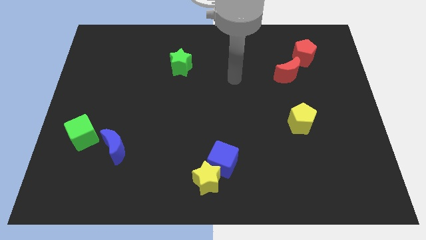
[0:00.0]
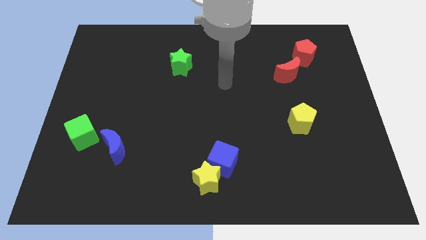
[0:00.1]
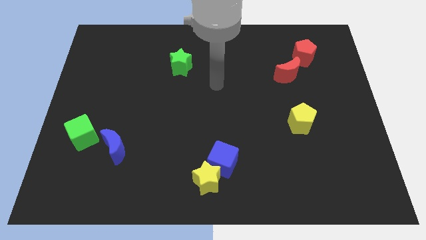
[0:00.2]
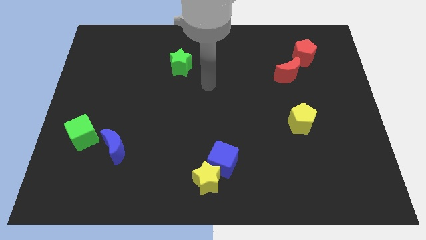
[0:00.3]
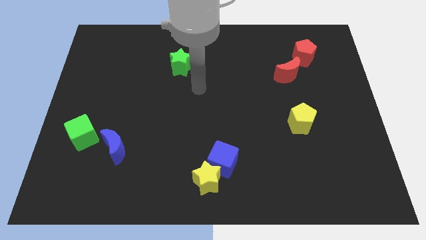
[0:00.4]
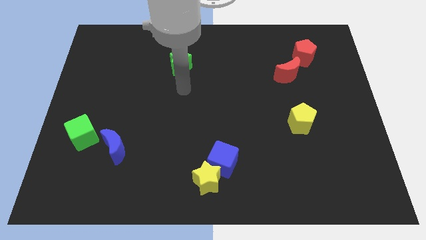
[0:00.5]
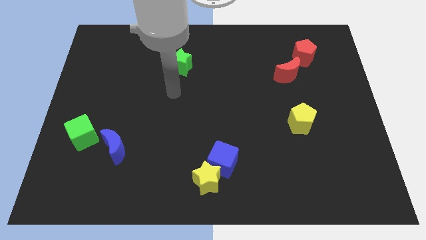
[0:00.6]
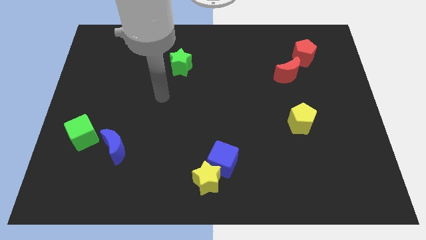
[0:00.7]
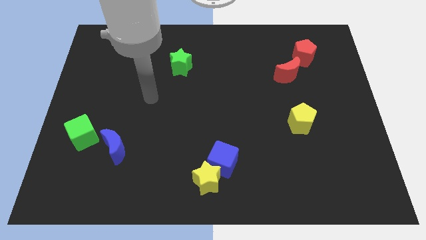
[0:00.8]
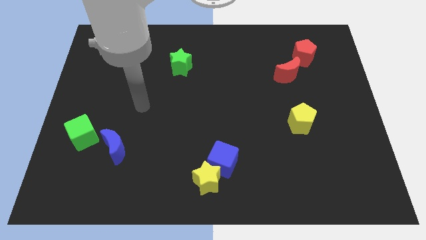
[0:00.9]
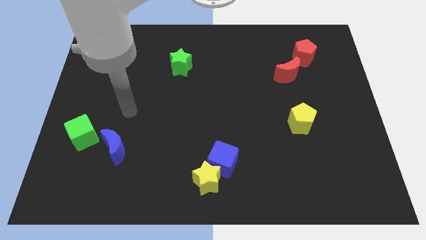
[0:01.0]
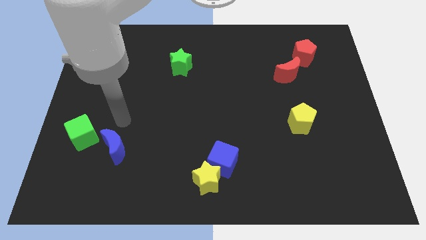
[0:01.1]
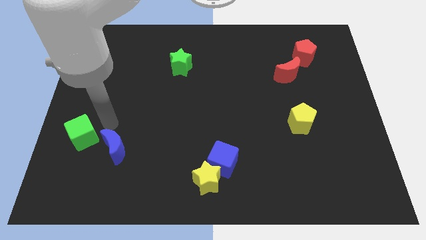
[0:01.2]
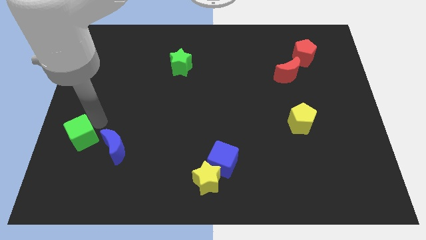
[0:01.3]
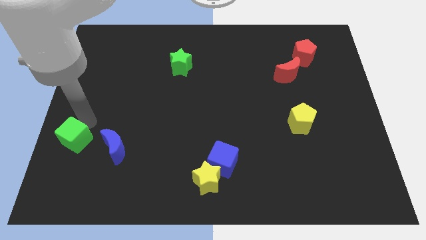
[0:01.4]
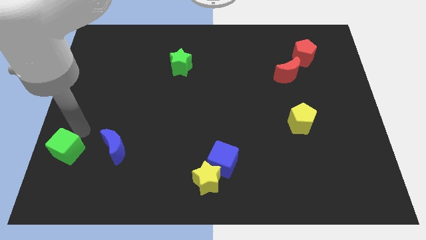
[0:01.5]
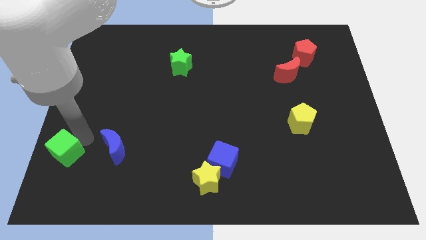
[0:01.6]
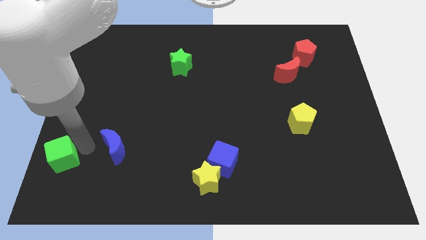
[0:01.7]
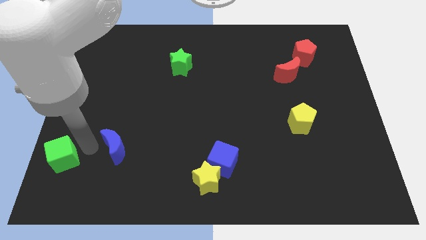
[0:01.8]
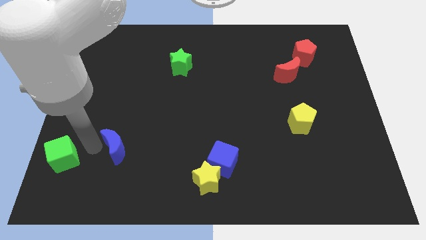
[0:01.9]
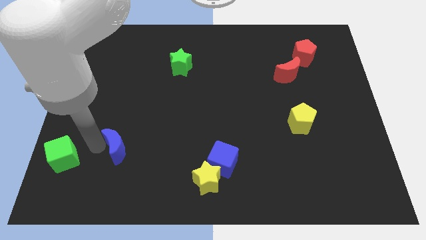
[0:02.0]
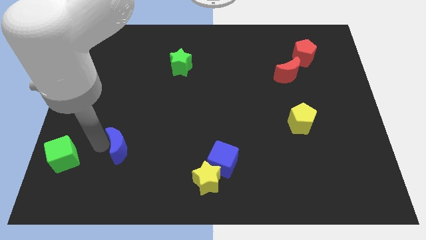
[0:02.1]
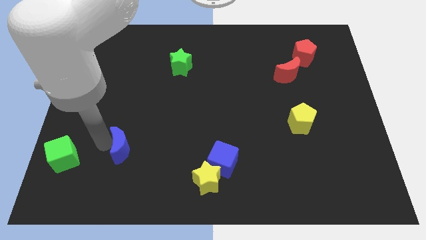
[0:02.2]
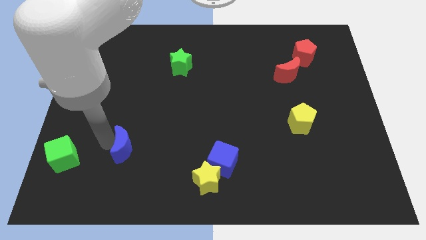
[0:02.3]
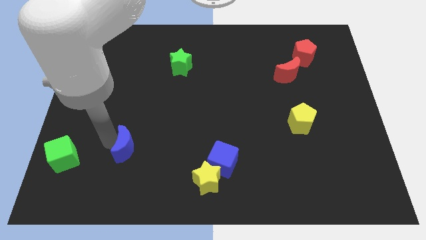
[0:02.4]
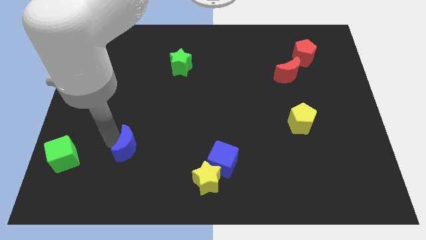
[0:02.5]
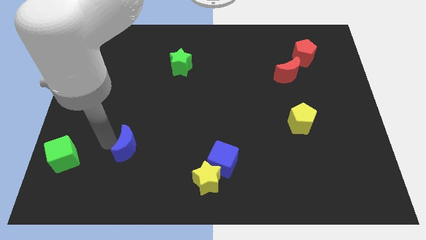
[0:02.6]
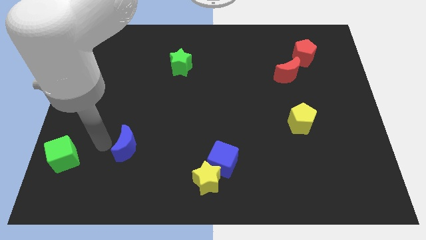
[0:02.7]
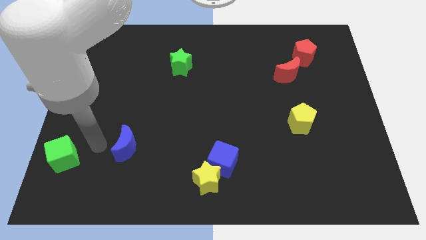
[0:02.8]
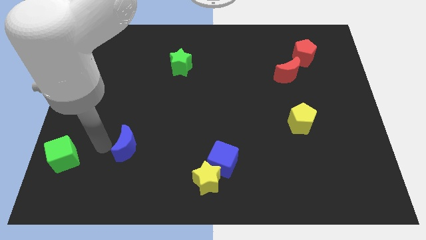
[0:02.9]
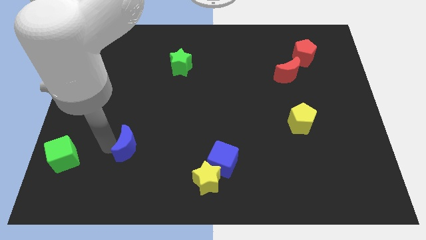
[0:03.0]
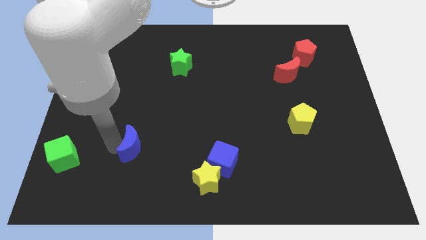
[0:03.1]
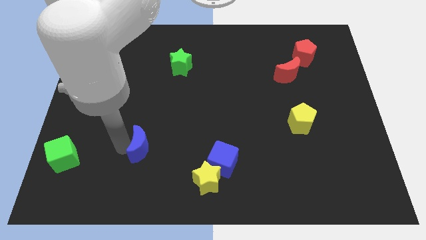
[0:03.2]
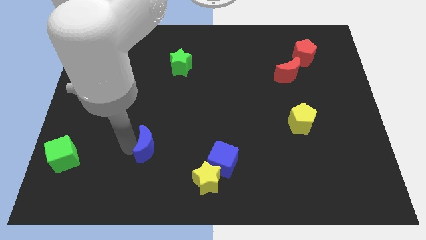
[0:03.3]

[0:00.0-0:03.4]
move the blue moon a bit to the right

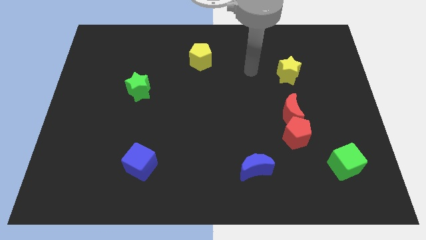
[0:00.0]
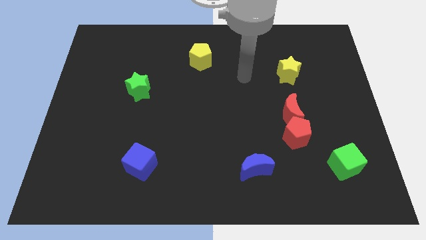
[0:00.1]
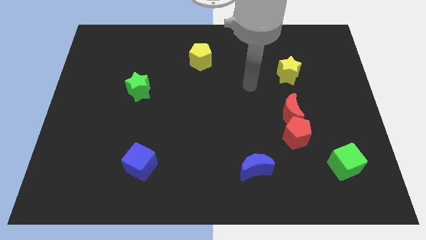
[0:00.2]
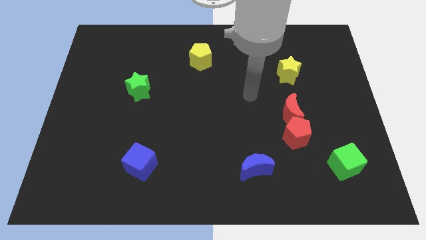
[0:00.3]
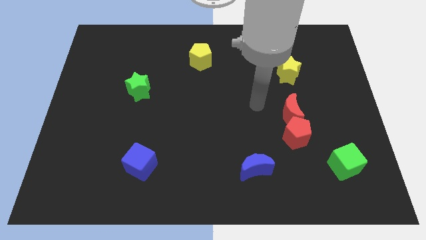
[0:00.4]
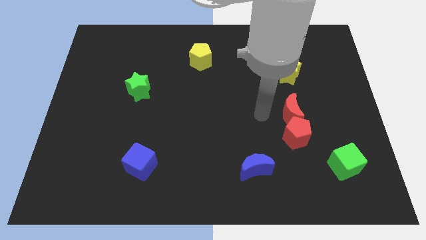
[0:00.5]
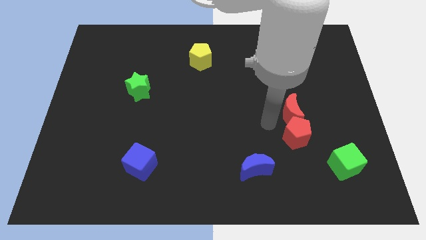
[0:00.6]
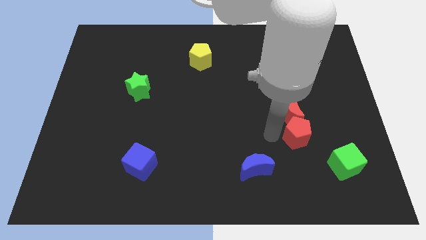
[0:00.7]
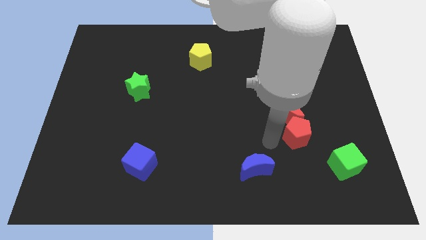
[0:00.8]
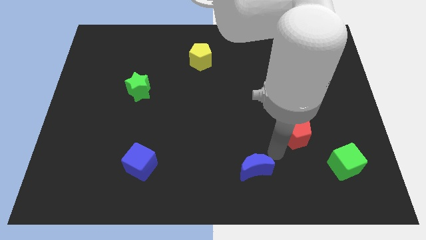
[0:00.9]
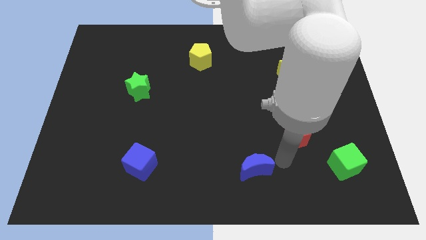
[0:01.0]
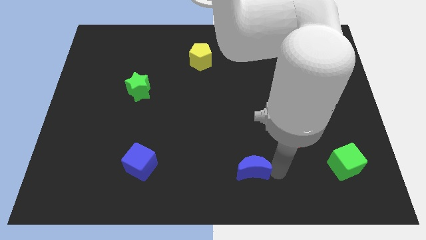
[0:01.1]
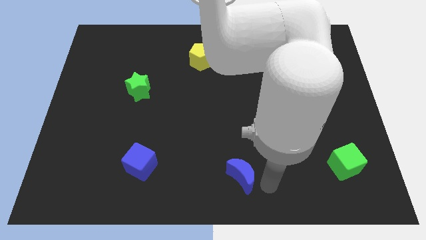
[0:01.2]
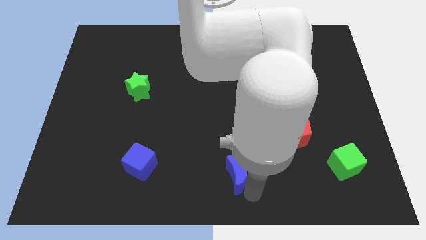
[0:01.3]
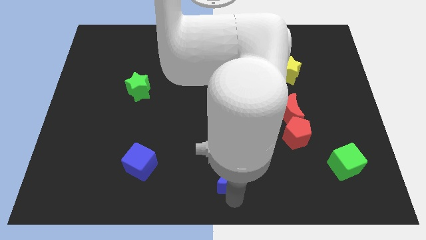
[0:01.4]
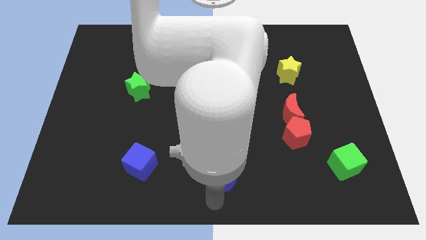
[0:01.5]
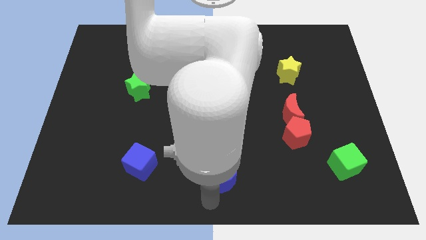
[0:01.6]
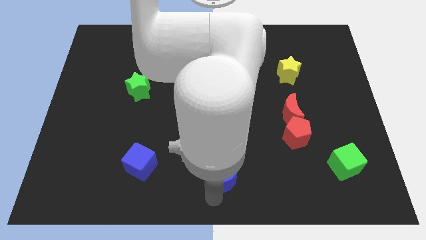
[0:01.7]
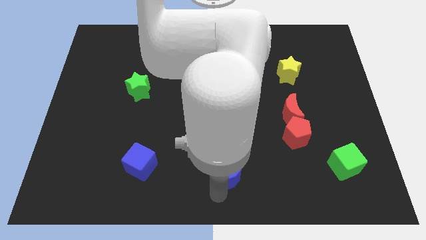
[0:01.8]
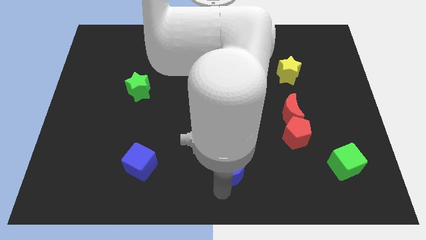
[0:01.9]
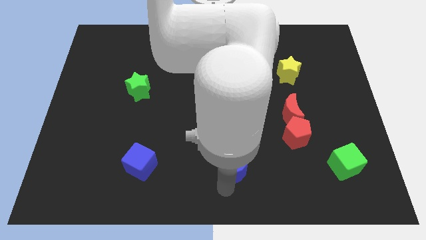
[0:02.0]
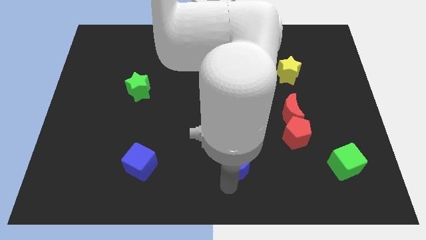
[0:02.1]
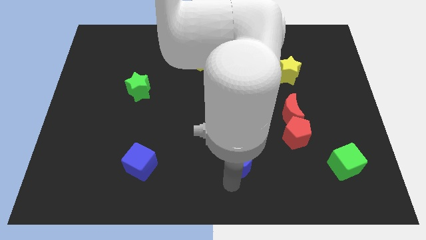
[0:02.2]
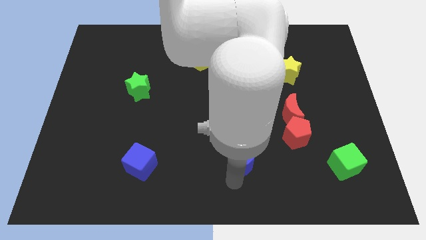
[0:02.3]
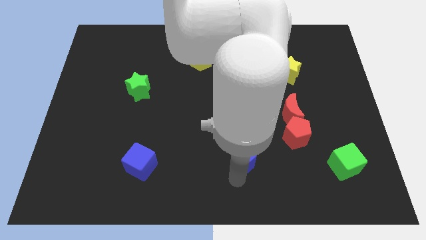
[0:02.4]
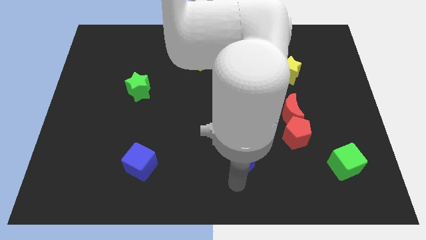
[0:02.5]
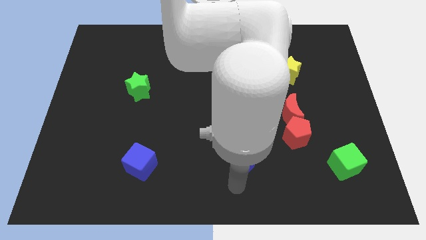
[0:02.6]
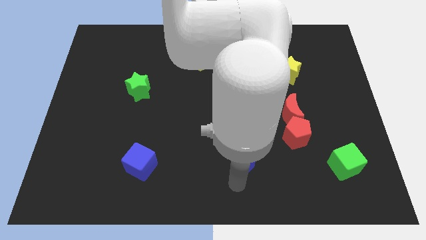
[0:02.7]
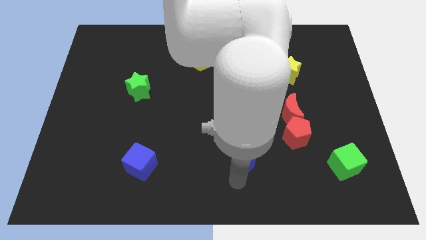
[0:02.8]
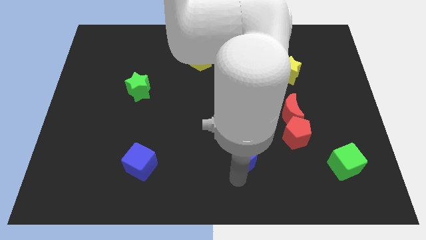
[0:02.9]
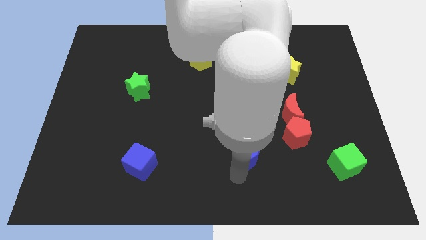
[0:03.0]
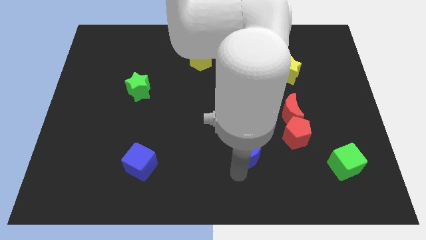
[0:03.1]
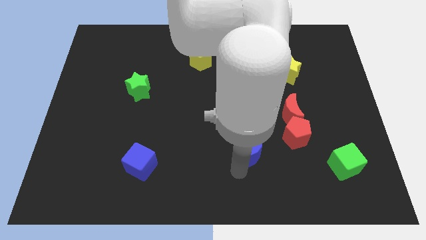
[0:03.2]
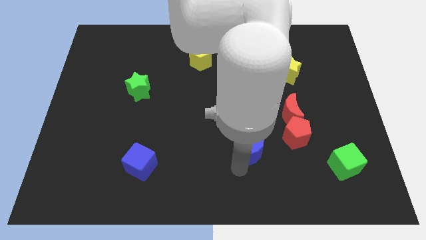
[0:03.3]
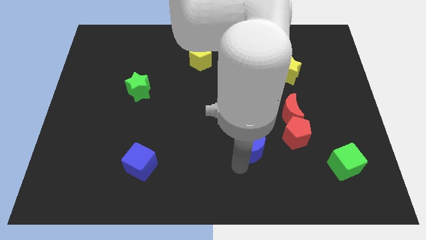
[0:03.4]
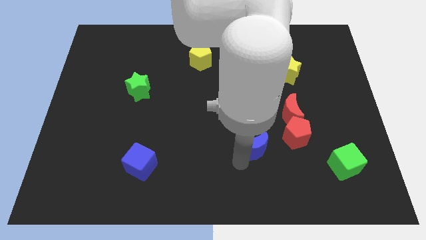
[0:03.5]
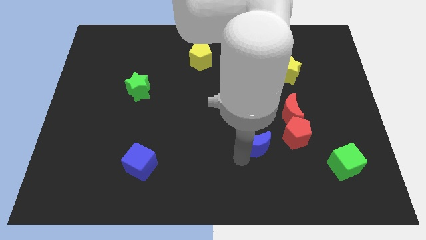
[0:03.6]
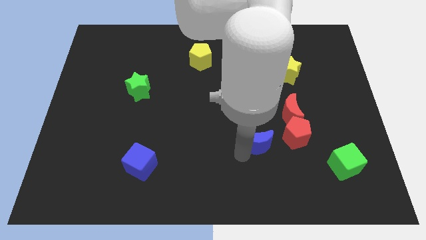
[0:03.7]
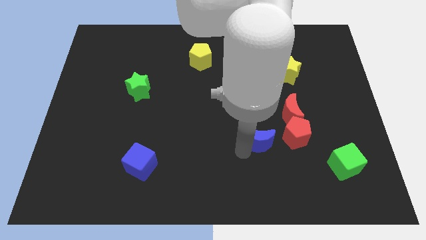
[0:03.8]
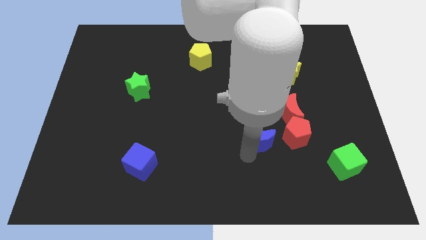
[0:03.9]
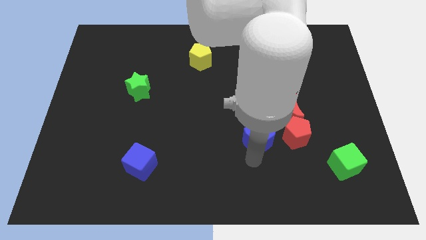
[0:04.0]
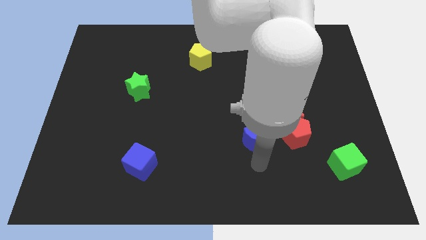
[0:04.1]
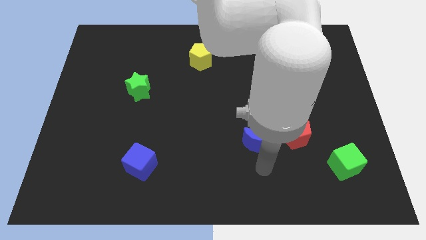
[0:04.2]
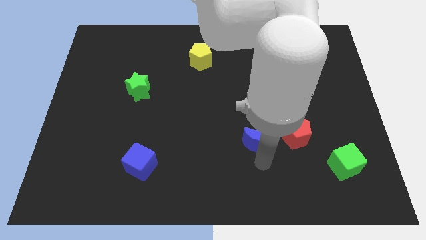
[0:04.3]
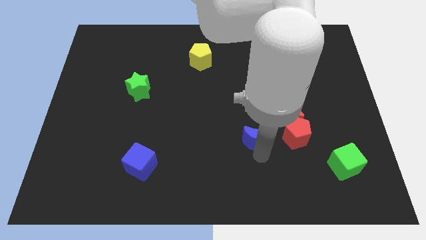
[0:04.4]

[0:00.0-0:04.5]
slide the blue moon up a little bit

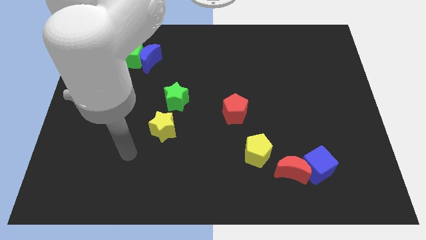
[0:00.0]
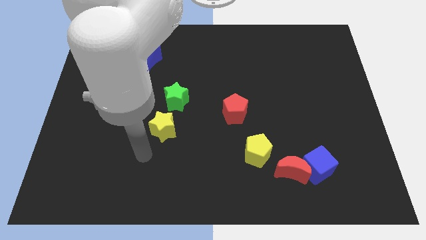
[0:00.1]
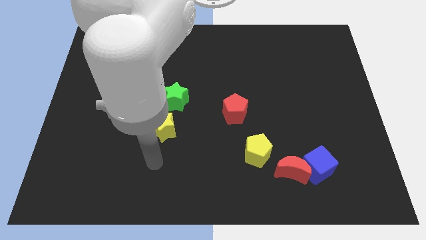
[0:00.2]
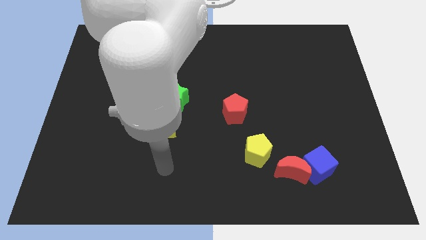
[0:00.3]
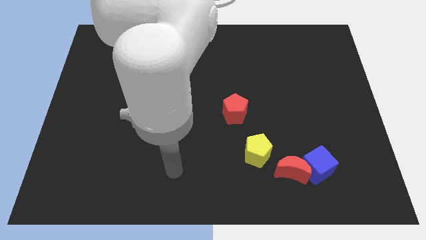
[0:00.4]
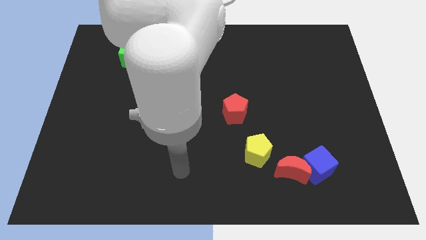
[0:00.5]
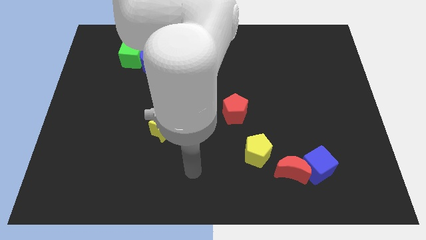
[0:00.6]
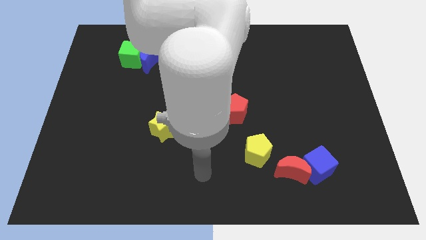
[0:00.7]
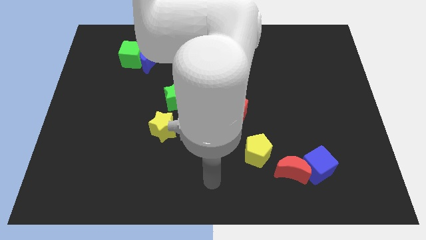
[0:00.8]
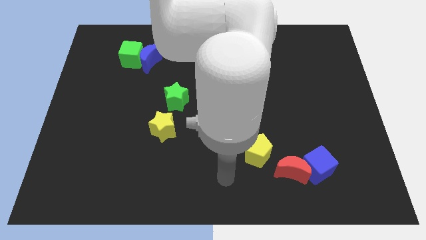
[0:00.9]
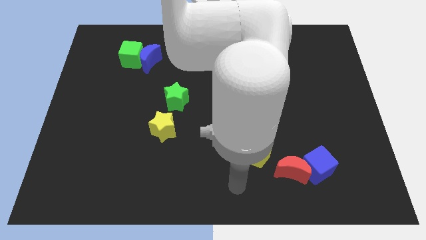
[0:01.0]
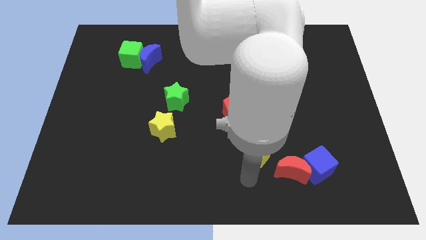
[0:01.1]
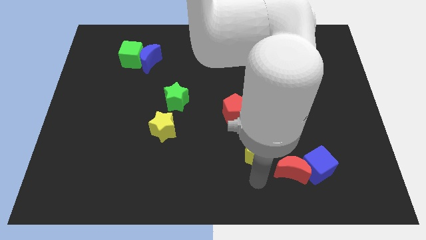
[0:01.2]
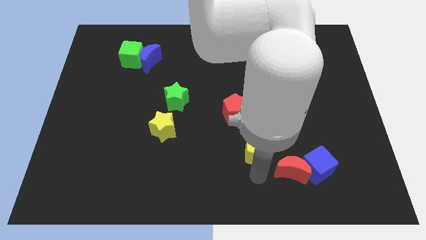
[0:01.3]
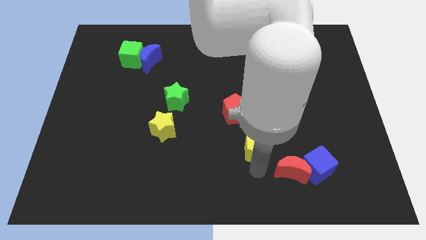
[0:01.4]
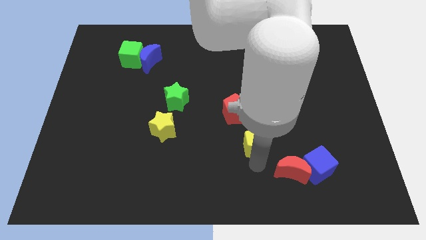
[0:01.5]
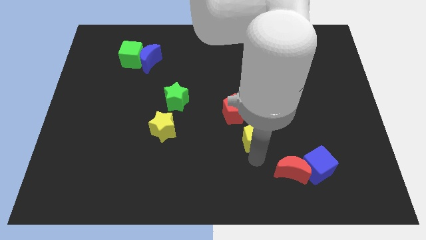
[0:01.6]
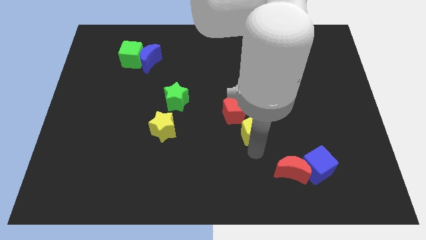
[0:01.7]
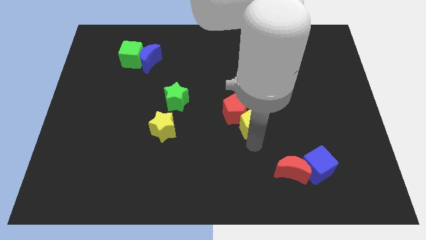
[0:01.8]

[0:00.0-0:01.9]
move the yellow pentagon upwards a little
